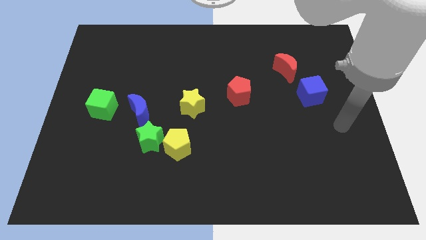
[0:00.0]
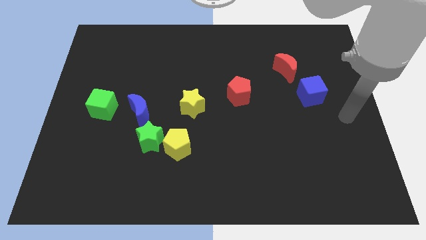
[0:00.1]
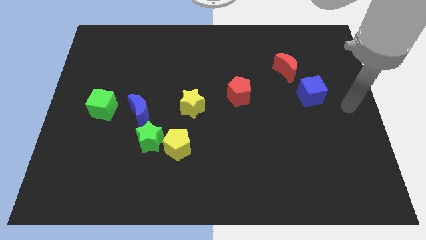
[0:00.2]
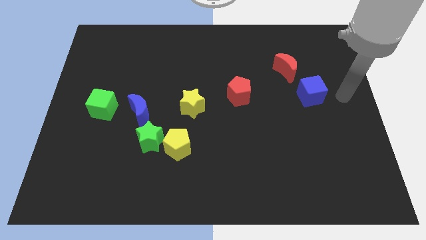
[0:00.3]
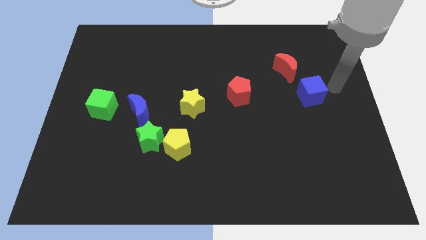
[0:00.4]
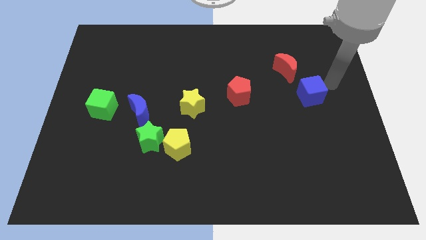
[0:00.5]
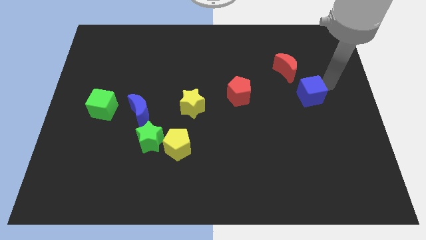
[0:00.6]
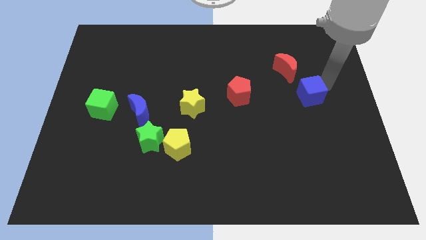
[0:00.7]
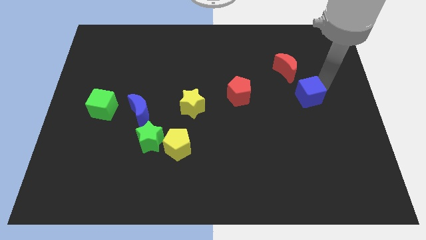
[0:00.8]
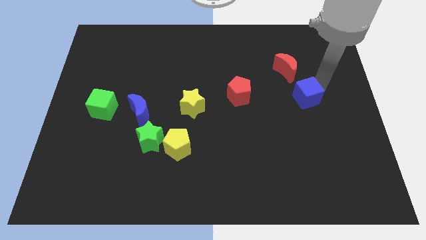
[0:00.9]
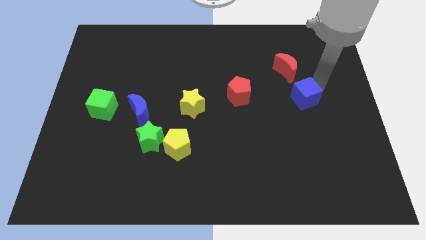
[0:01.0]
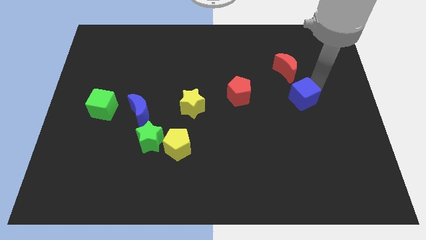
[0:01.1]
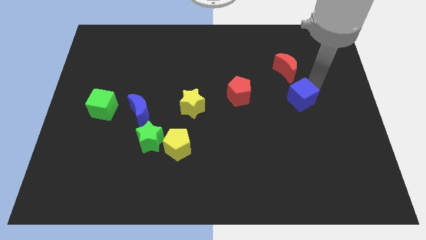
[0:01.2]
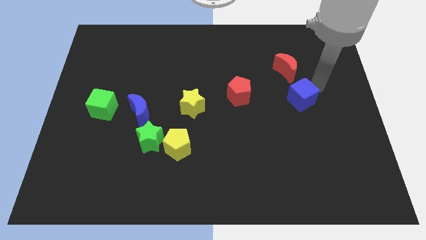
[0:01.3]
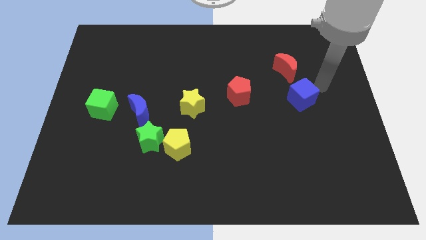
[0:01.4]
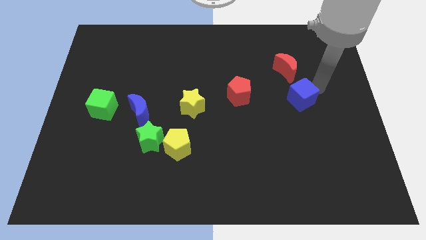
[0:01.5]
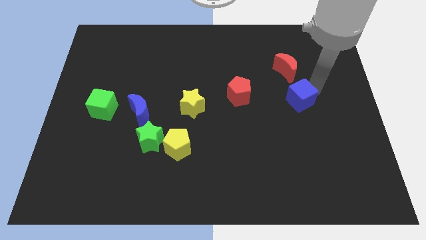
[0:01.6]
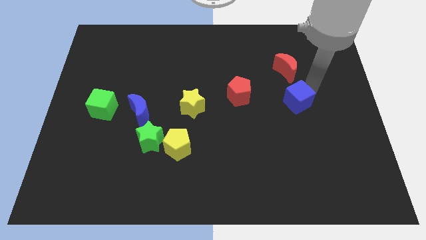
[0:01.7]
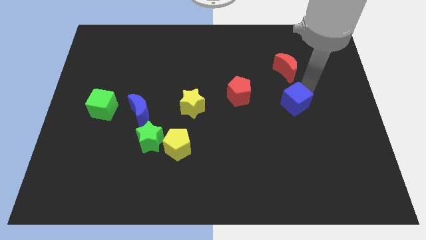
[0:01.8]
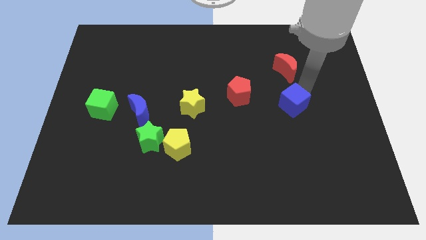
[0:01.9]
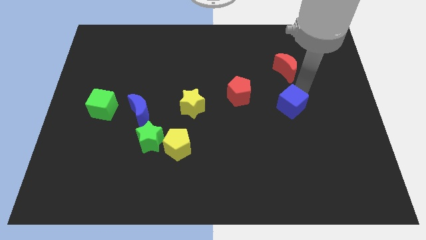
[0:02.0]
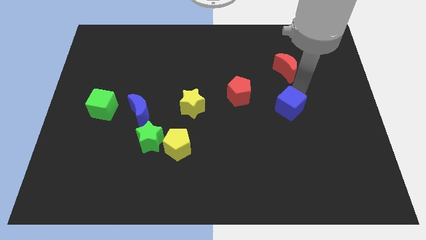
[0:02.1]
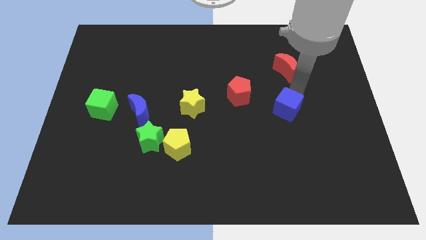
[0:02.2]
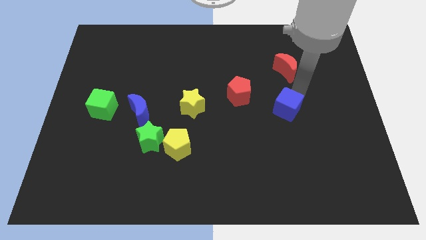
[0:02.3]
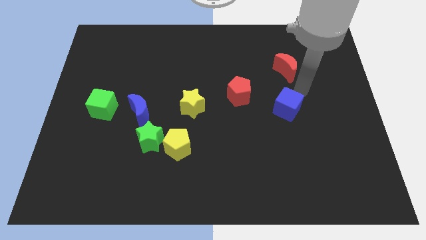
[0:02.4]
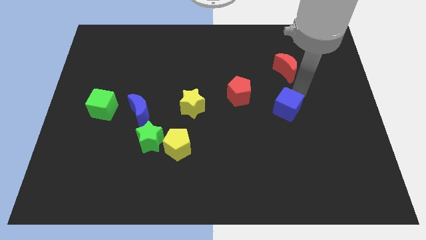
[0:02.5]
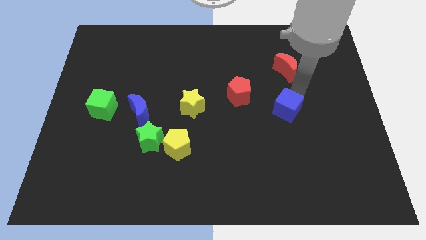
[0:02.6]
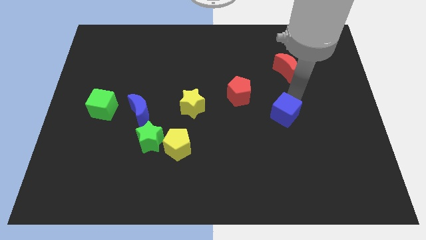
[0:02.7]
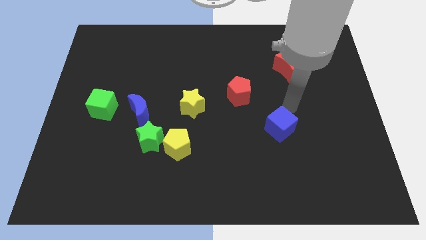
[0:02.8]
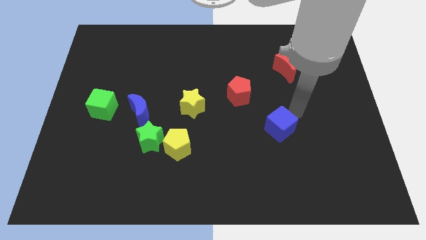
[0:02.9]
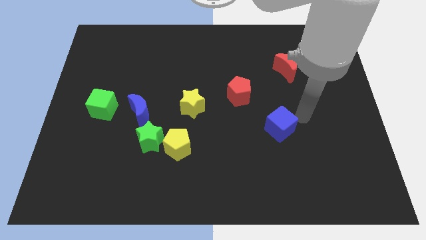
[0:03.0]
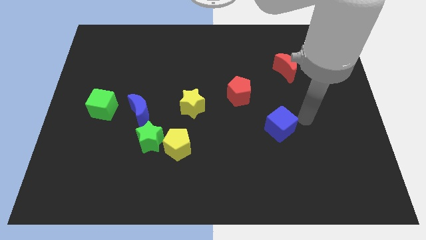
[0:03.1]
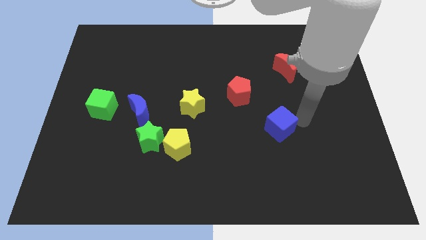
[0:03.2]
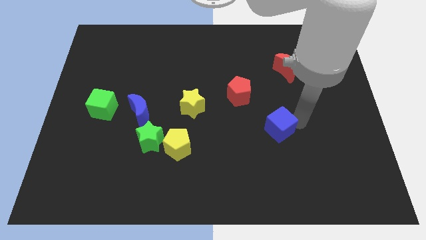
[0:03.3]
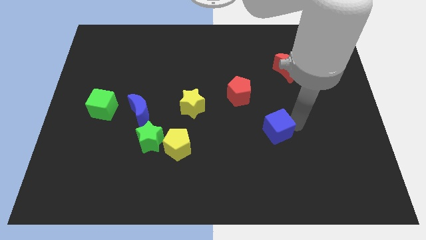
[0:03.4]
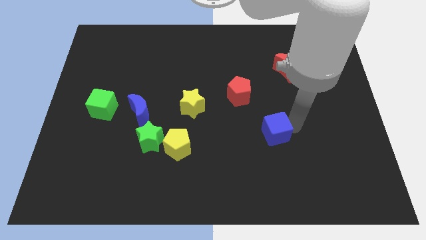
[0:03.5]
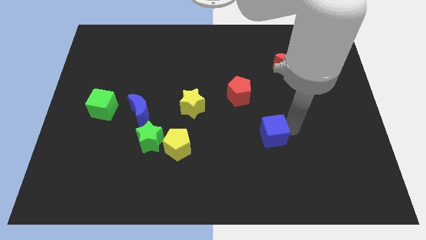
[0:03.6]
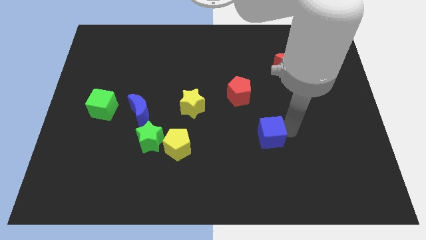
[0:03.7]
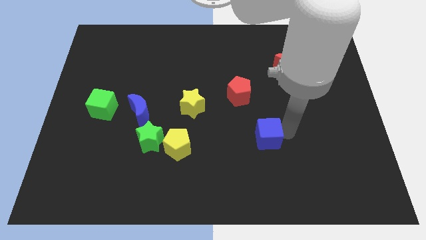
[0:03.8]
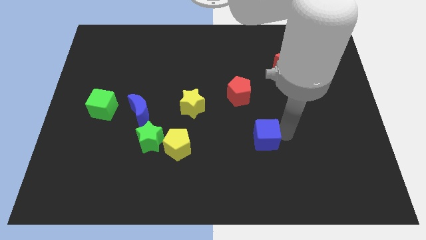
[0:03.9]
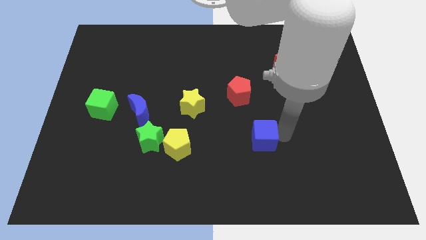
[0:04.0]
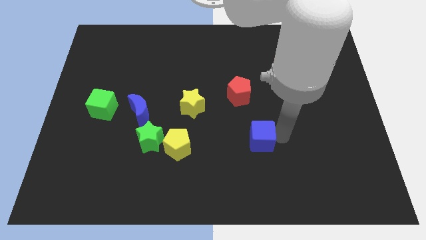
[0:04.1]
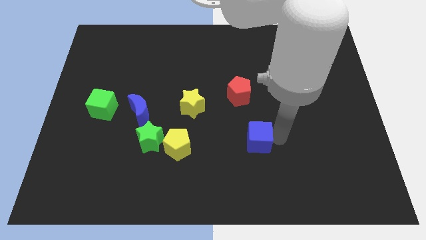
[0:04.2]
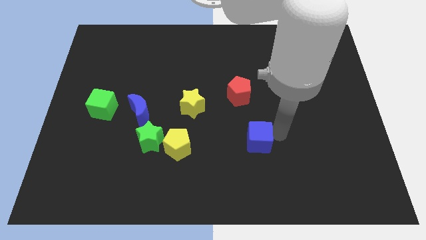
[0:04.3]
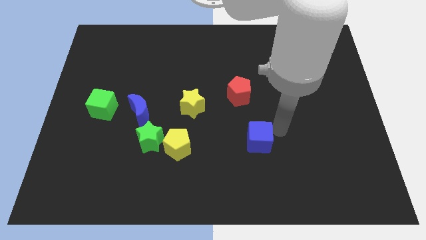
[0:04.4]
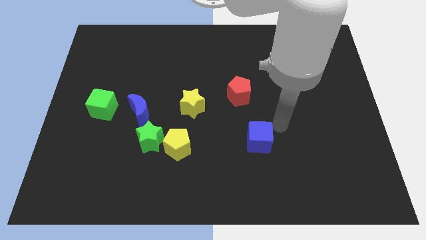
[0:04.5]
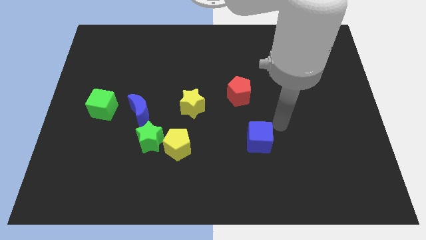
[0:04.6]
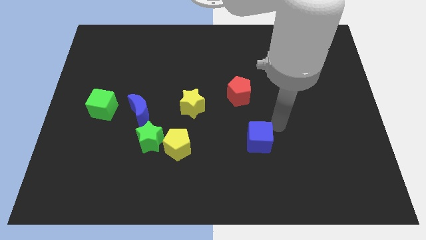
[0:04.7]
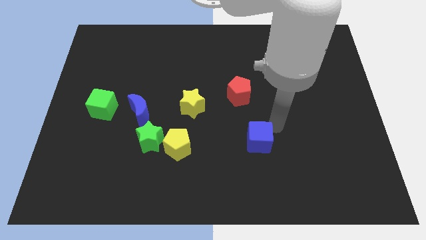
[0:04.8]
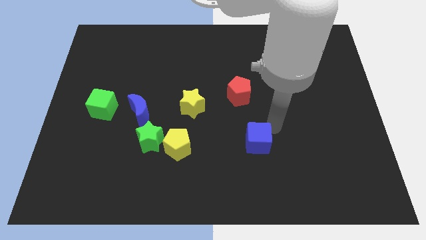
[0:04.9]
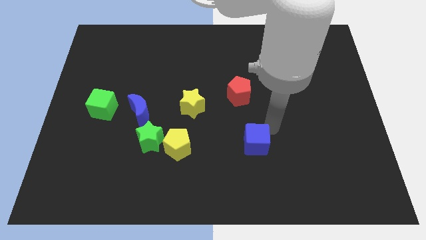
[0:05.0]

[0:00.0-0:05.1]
push the blue cube diagonally downwards and left

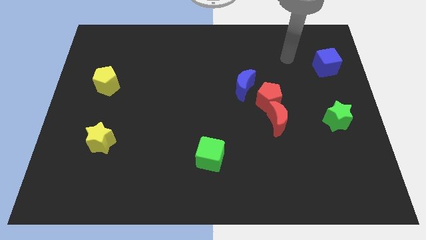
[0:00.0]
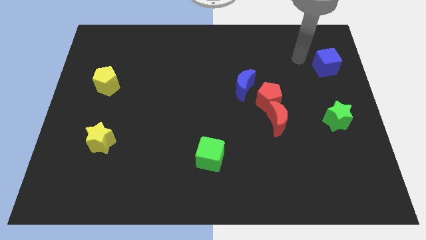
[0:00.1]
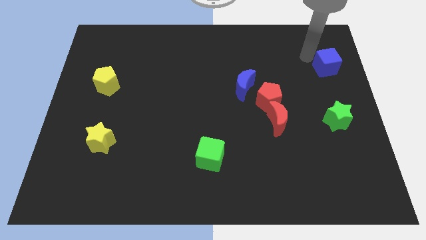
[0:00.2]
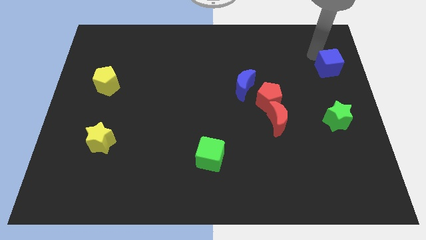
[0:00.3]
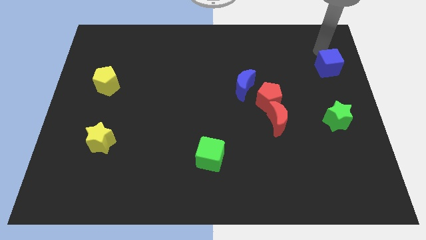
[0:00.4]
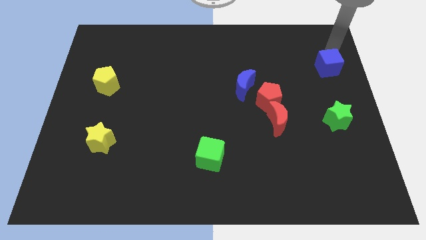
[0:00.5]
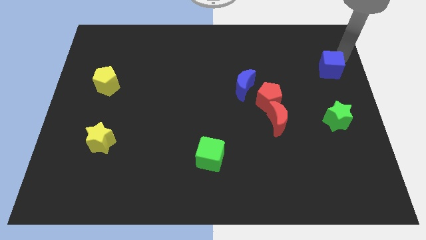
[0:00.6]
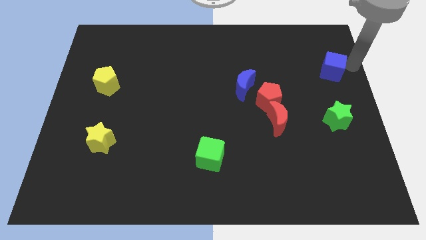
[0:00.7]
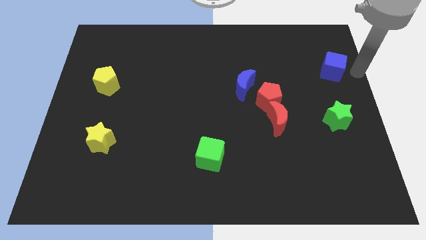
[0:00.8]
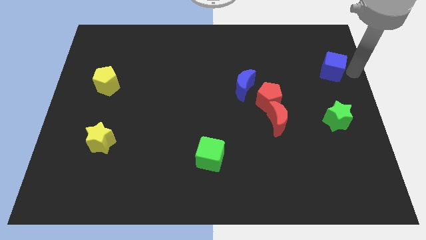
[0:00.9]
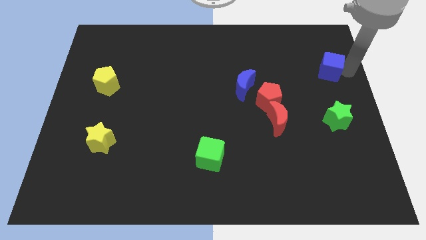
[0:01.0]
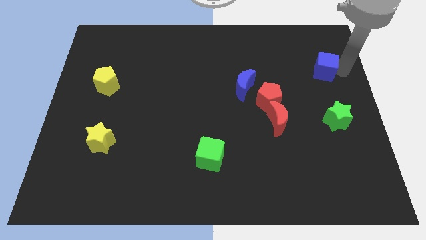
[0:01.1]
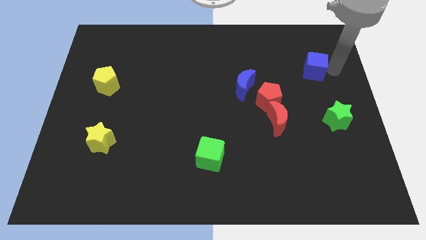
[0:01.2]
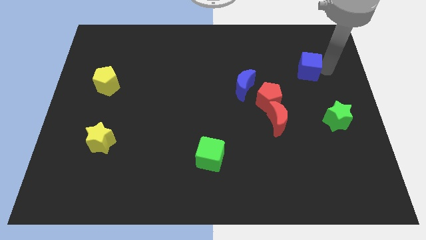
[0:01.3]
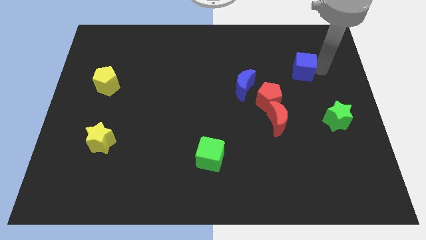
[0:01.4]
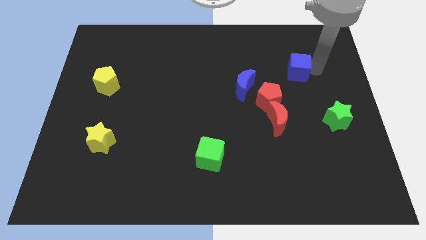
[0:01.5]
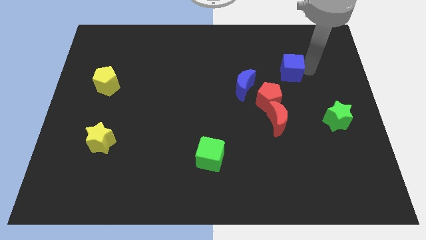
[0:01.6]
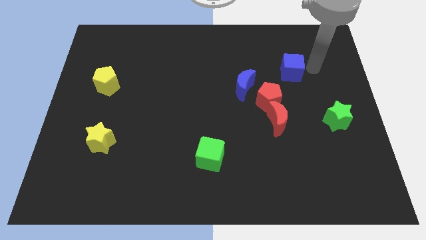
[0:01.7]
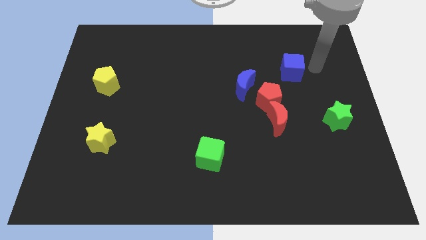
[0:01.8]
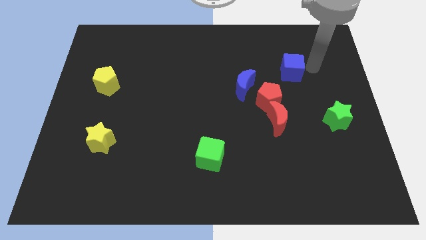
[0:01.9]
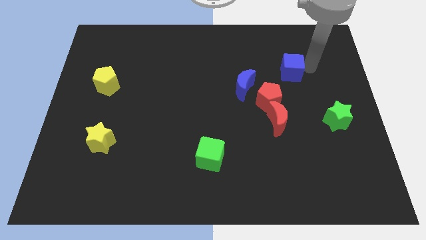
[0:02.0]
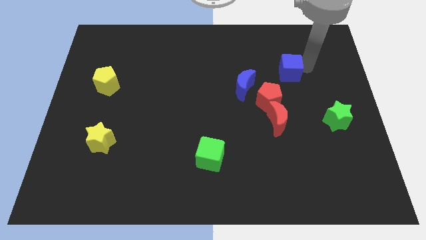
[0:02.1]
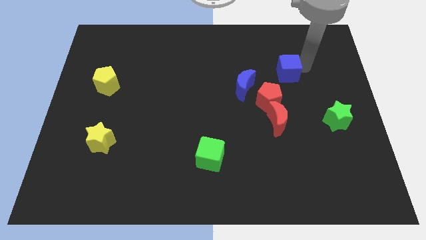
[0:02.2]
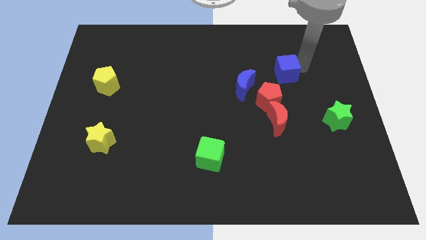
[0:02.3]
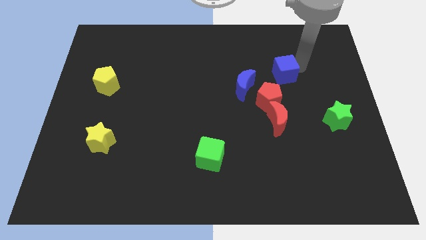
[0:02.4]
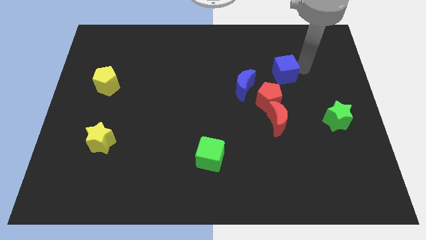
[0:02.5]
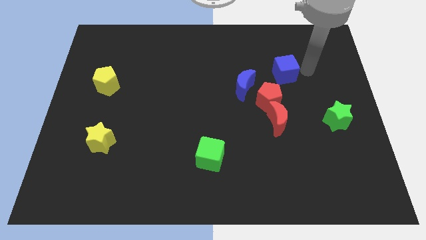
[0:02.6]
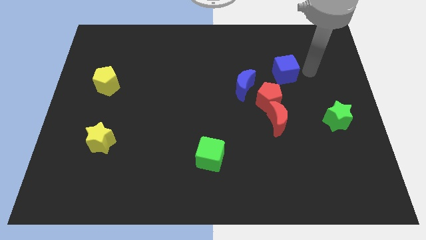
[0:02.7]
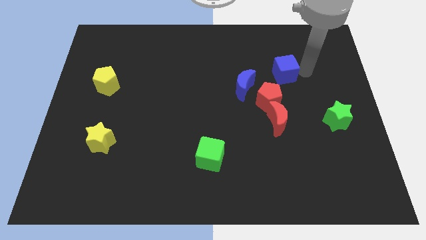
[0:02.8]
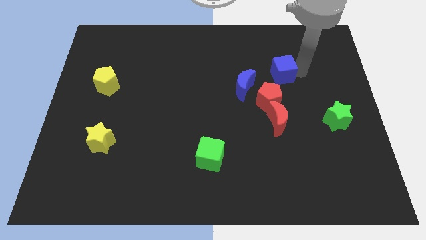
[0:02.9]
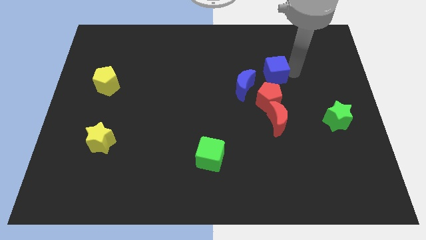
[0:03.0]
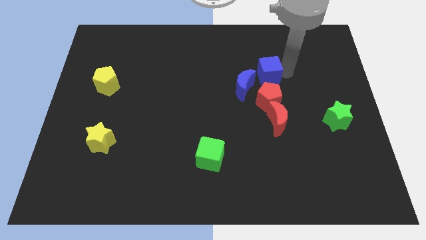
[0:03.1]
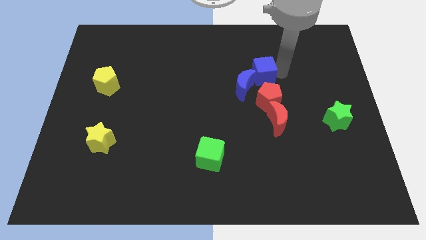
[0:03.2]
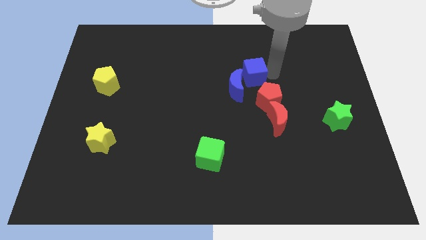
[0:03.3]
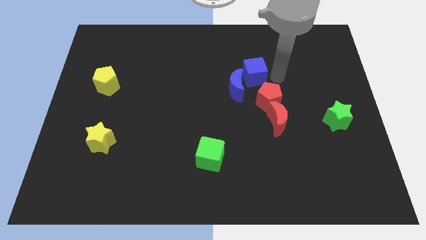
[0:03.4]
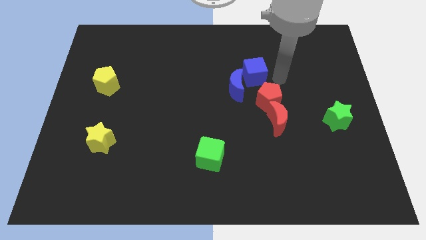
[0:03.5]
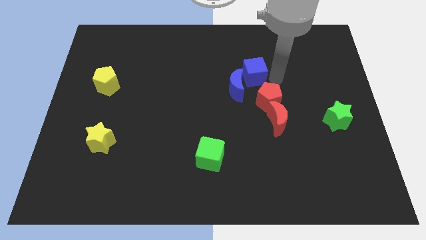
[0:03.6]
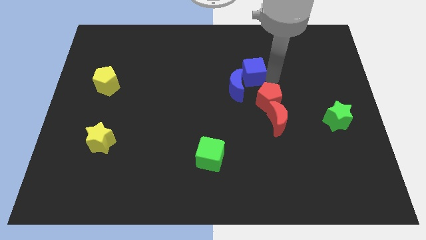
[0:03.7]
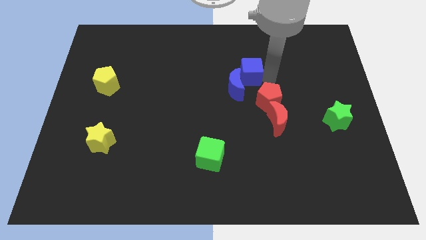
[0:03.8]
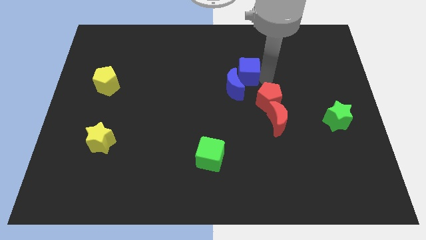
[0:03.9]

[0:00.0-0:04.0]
move the blue cube left
